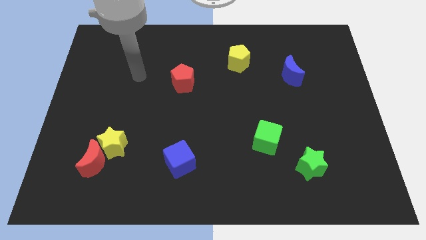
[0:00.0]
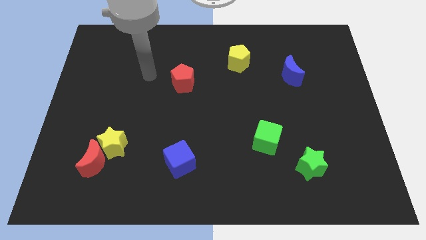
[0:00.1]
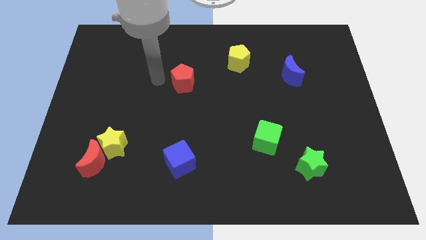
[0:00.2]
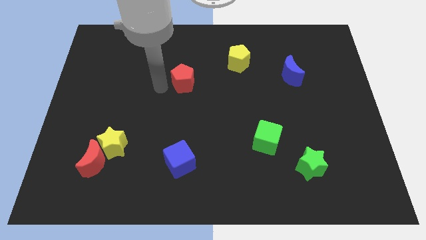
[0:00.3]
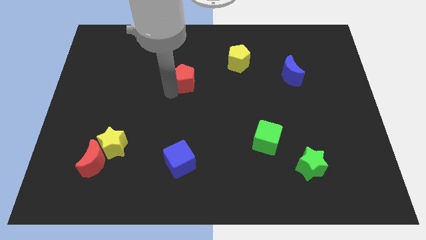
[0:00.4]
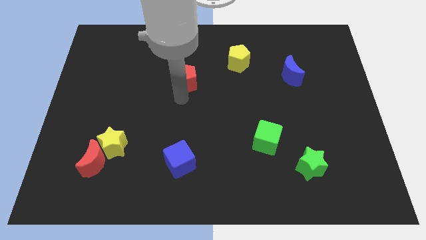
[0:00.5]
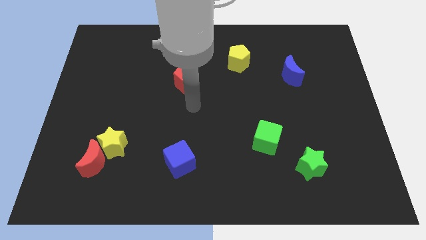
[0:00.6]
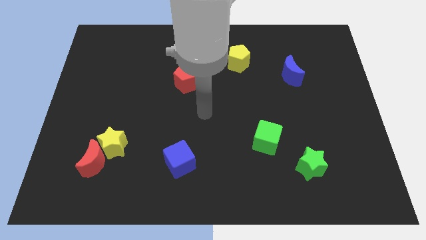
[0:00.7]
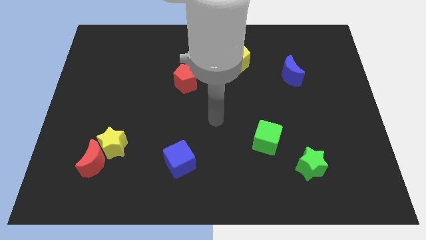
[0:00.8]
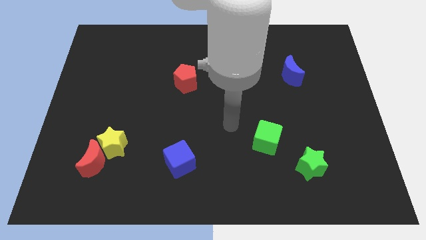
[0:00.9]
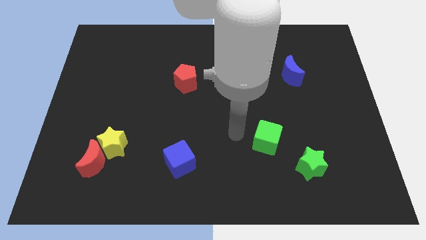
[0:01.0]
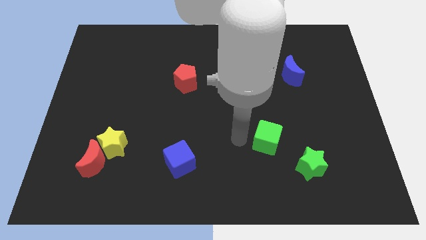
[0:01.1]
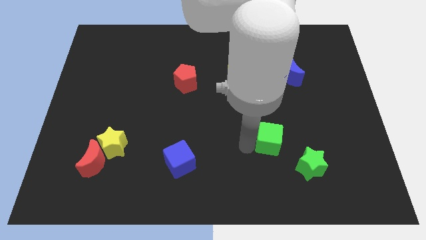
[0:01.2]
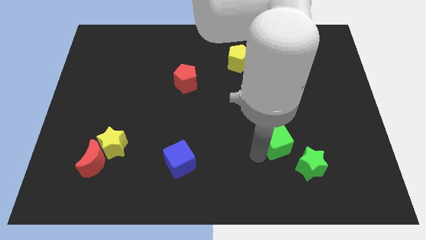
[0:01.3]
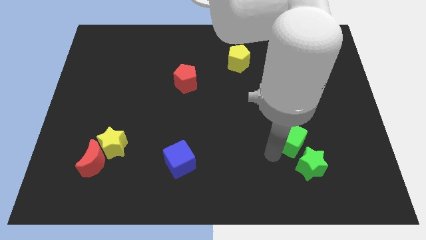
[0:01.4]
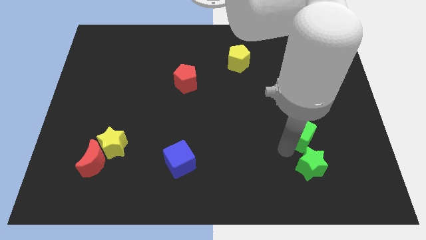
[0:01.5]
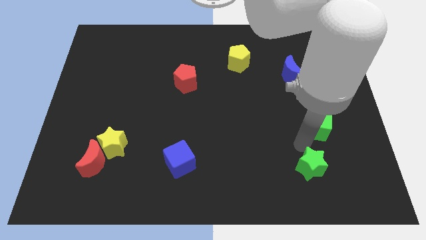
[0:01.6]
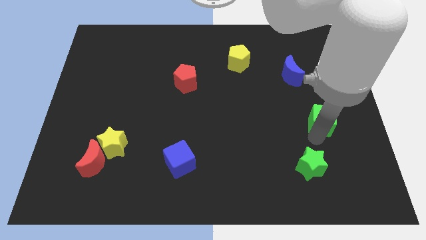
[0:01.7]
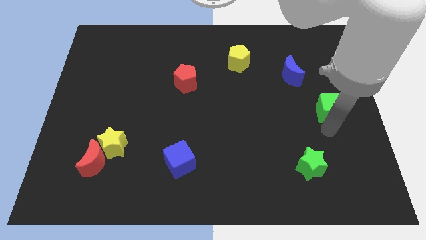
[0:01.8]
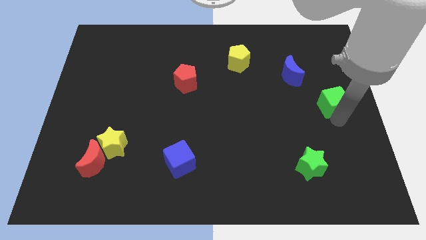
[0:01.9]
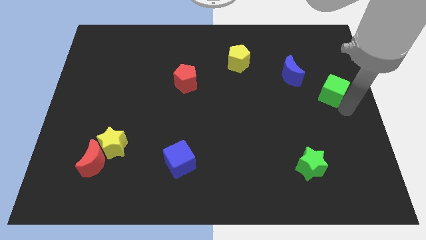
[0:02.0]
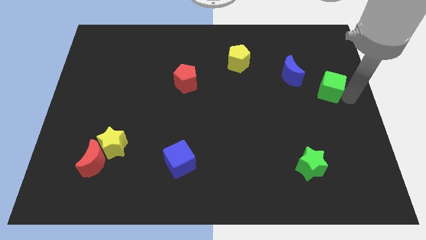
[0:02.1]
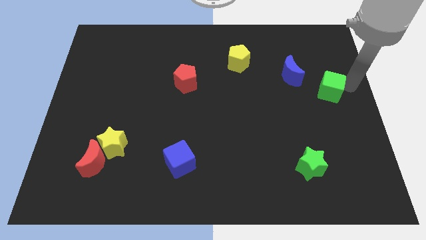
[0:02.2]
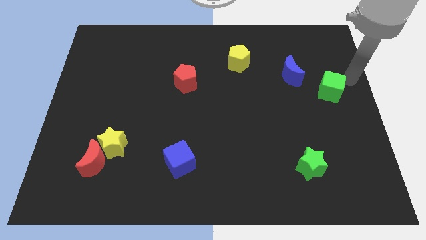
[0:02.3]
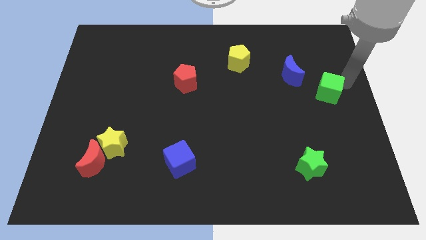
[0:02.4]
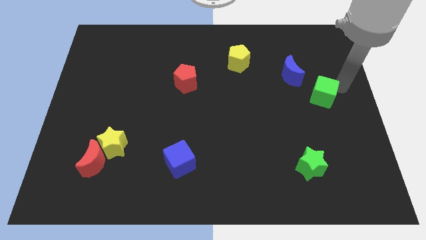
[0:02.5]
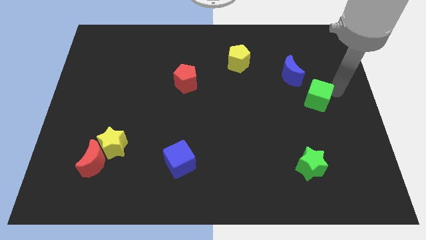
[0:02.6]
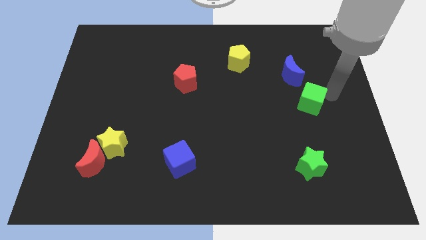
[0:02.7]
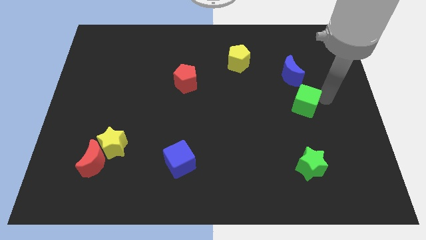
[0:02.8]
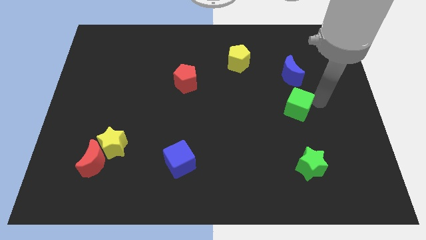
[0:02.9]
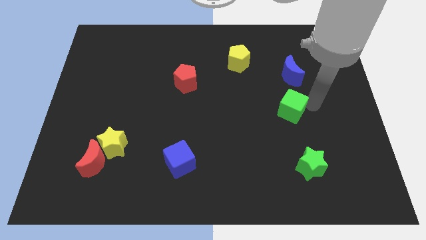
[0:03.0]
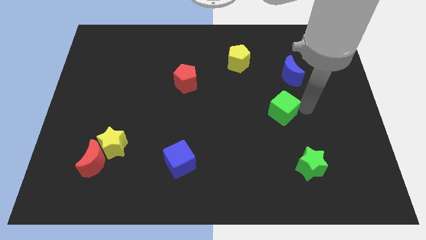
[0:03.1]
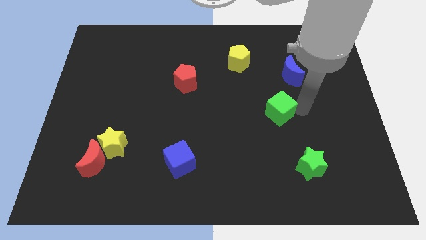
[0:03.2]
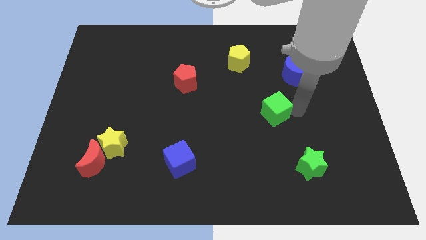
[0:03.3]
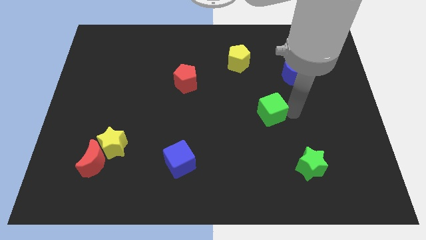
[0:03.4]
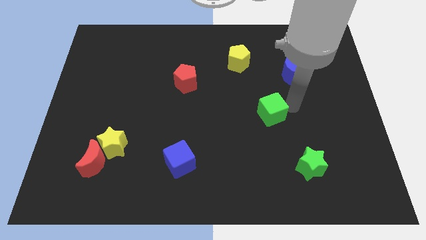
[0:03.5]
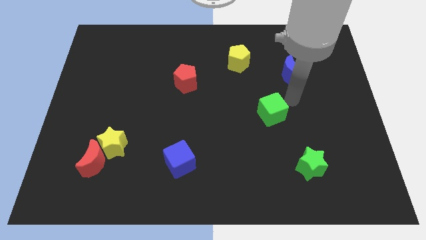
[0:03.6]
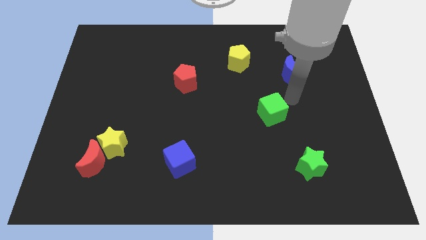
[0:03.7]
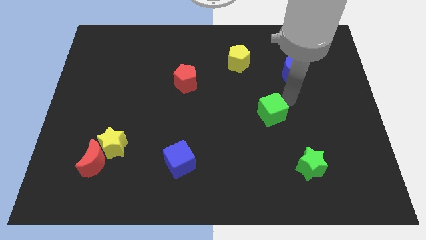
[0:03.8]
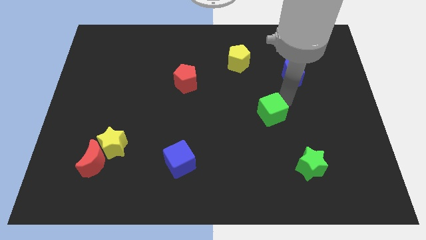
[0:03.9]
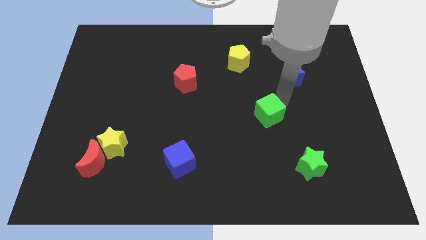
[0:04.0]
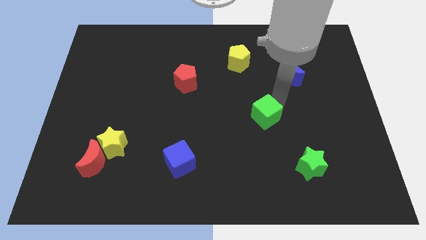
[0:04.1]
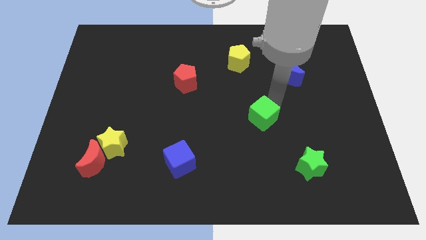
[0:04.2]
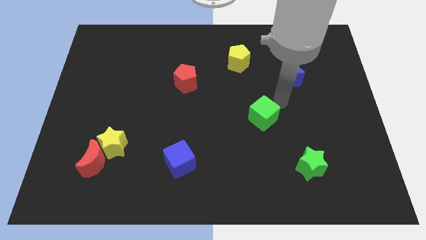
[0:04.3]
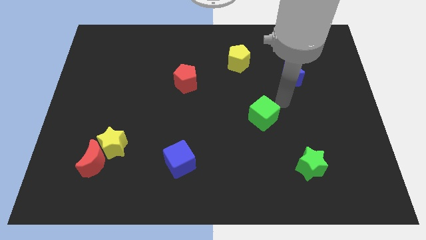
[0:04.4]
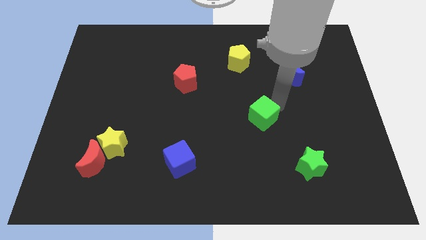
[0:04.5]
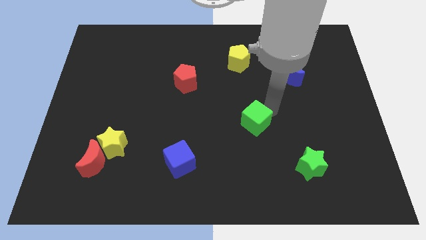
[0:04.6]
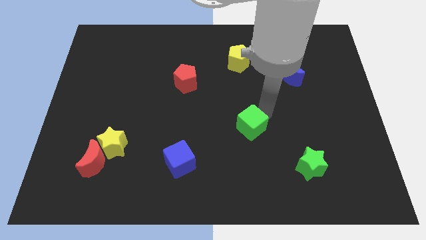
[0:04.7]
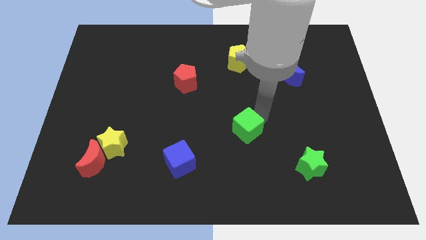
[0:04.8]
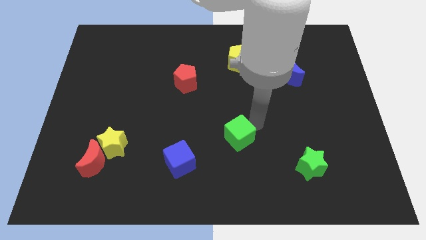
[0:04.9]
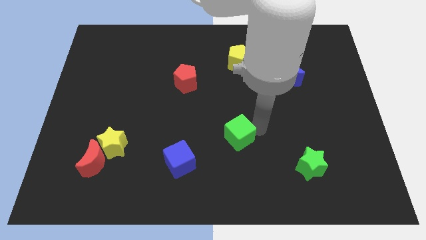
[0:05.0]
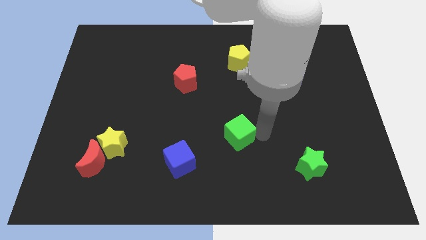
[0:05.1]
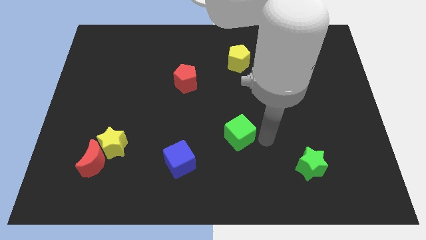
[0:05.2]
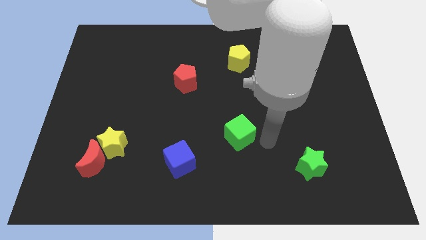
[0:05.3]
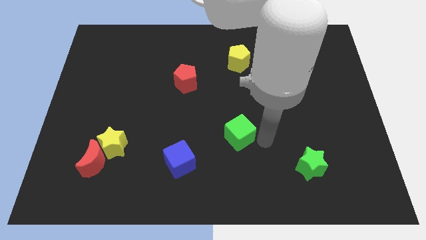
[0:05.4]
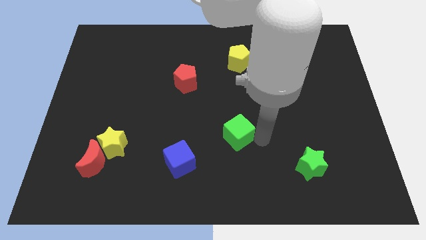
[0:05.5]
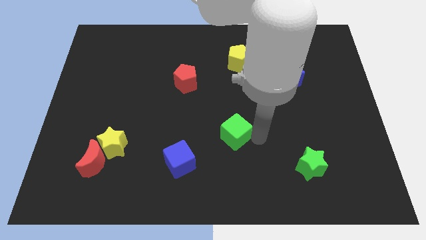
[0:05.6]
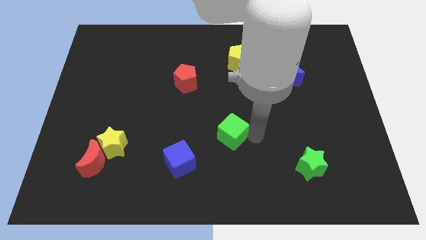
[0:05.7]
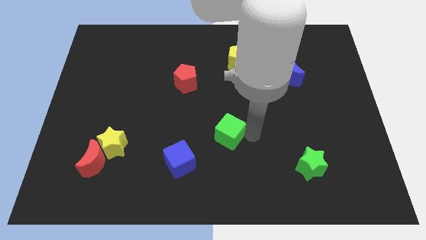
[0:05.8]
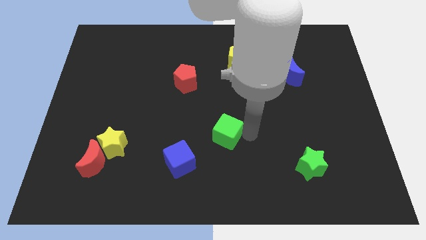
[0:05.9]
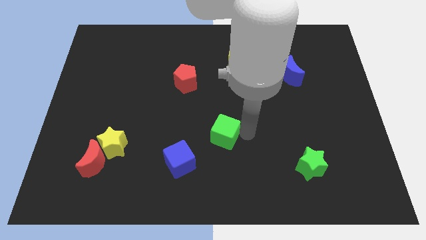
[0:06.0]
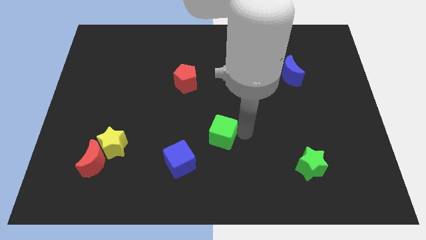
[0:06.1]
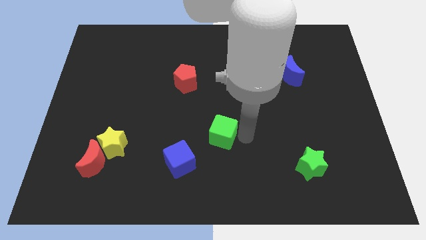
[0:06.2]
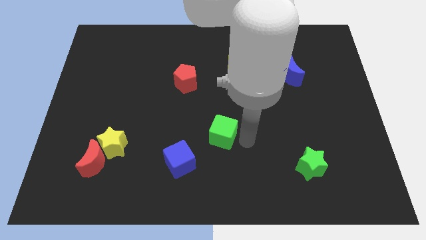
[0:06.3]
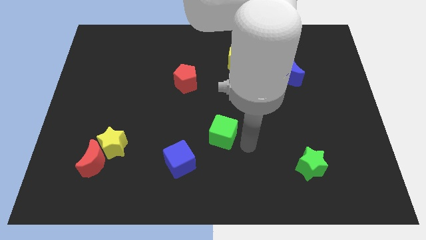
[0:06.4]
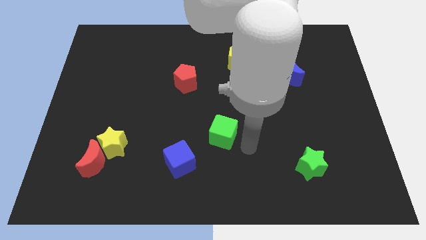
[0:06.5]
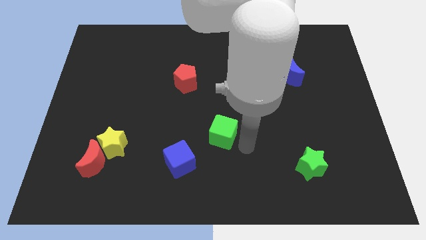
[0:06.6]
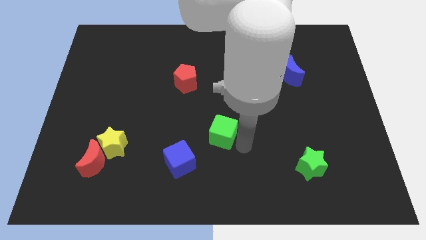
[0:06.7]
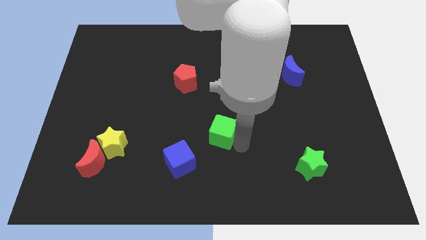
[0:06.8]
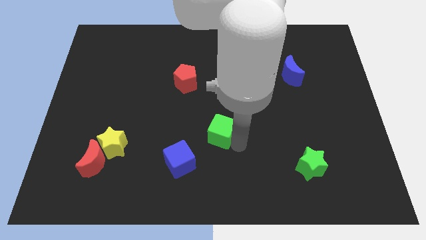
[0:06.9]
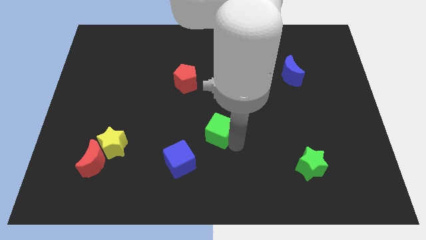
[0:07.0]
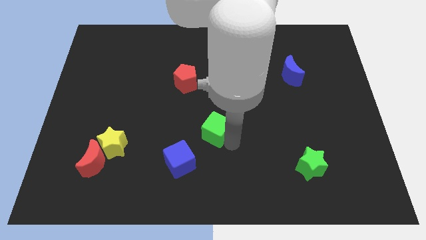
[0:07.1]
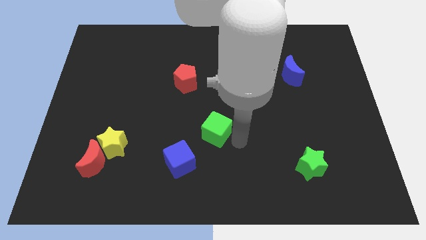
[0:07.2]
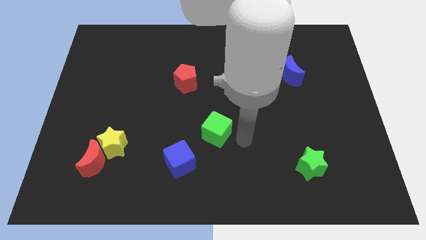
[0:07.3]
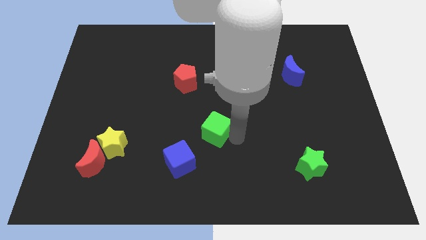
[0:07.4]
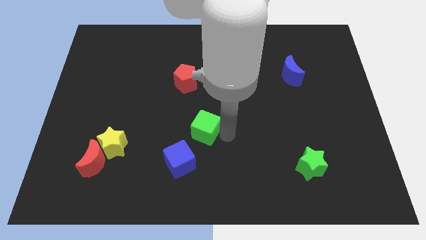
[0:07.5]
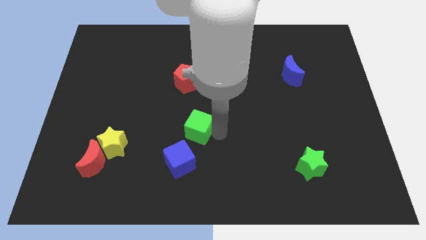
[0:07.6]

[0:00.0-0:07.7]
push the green cube above the blue cube
